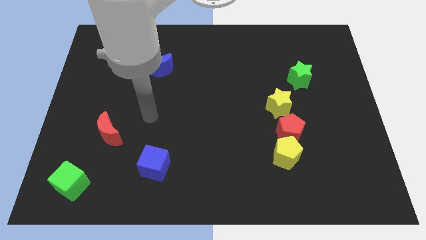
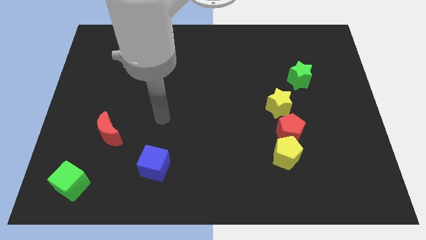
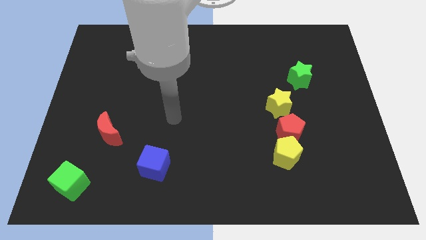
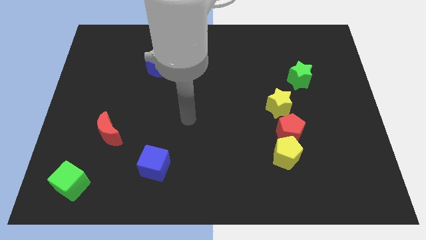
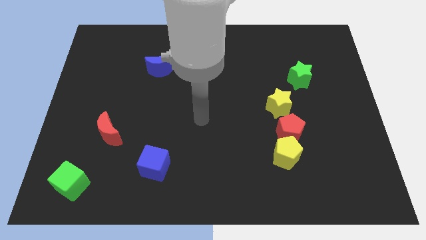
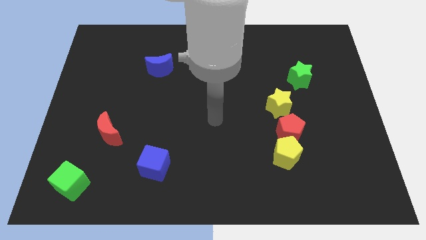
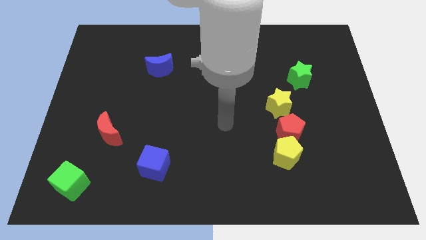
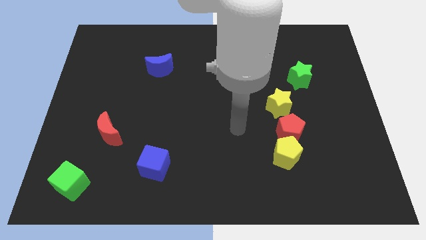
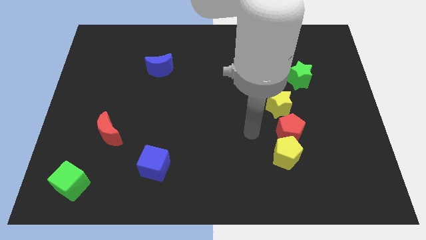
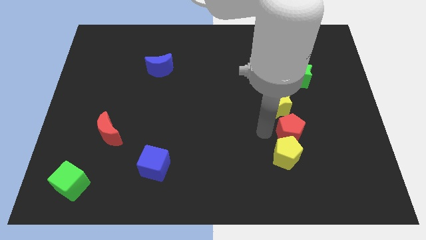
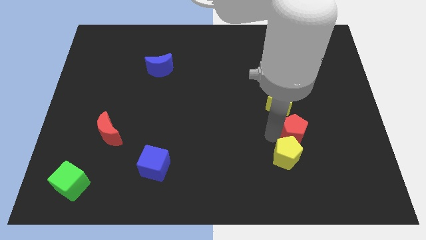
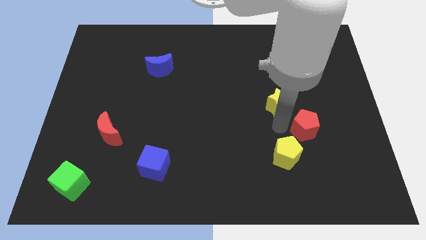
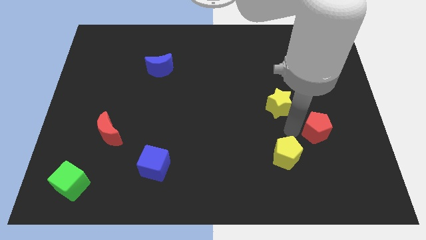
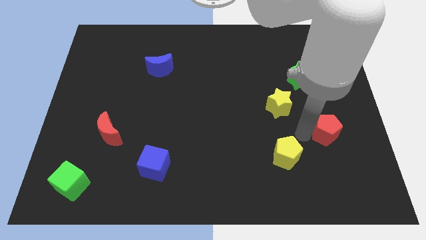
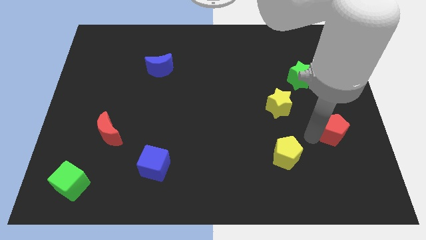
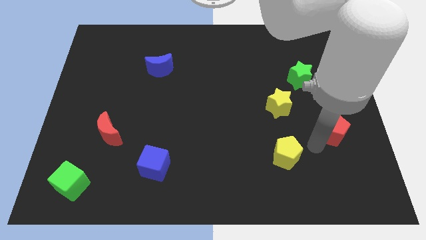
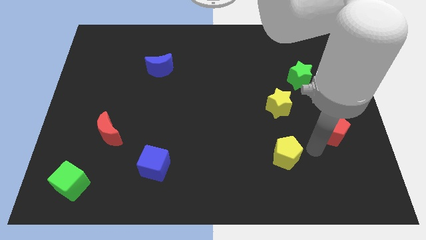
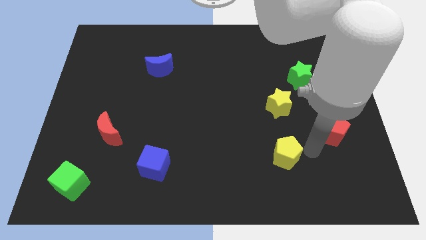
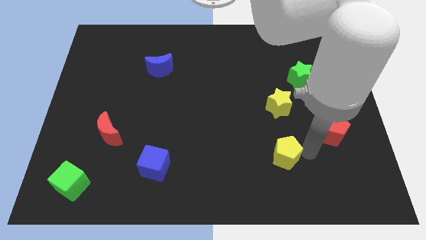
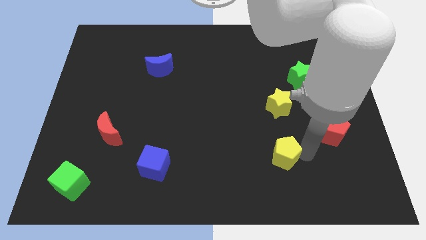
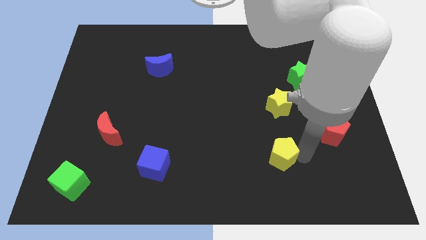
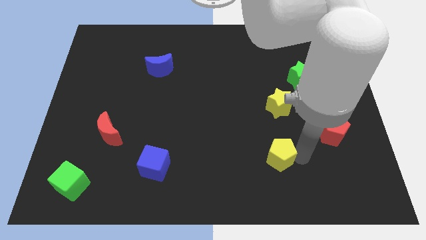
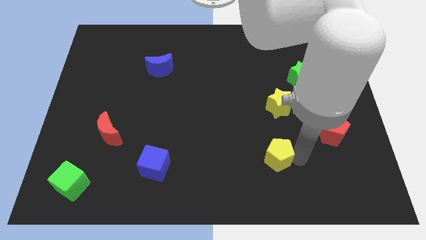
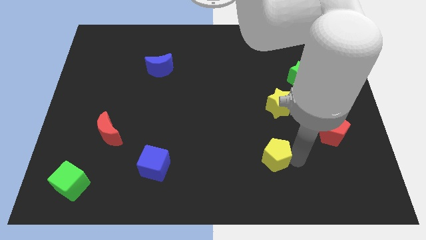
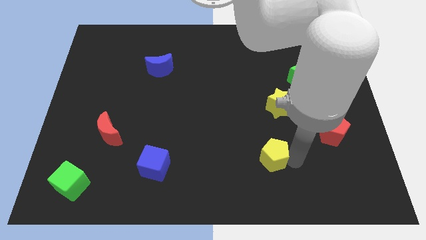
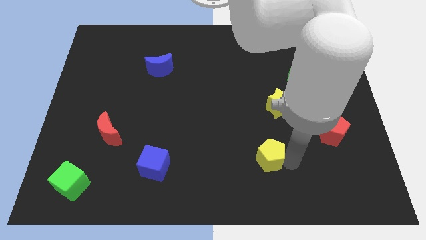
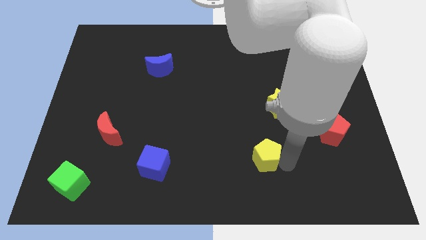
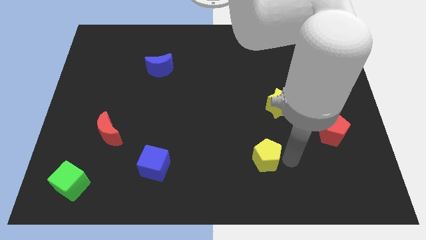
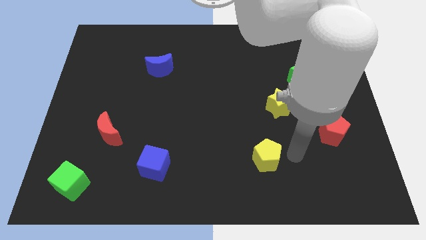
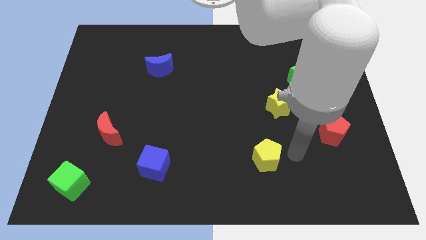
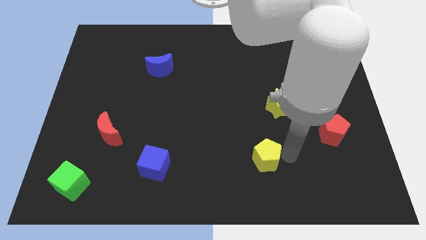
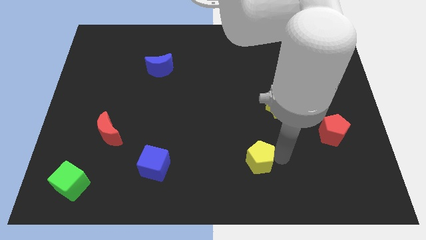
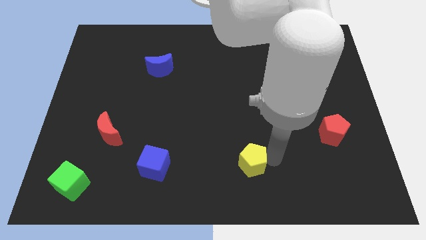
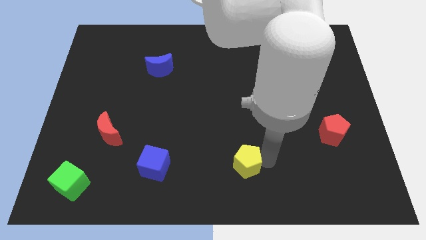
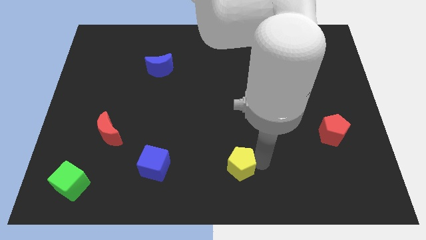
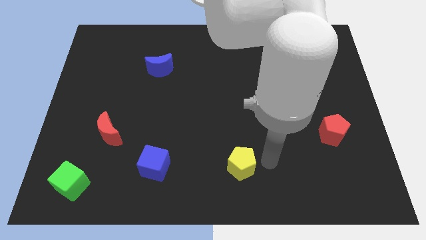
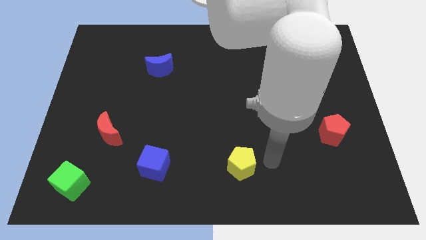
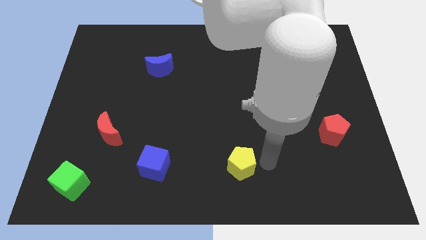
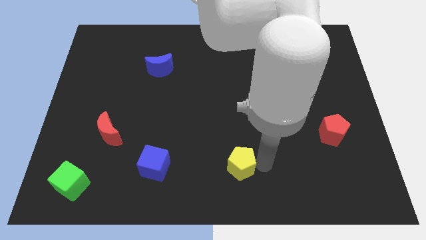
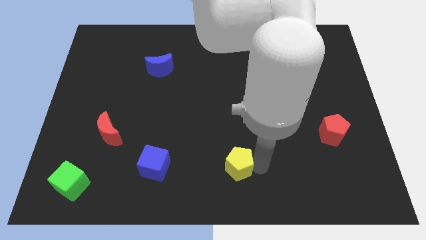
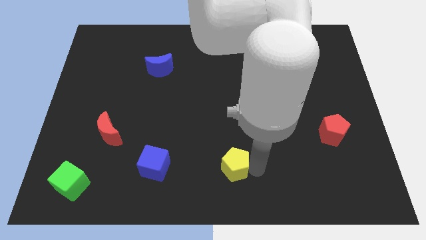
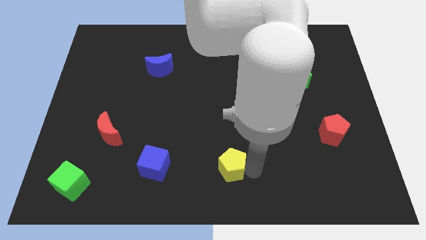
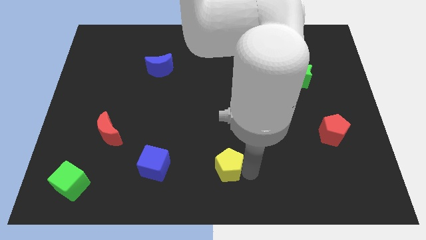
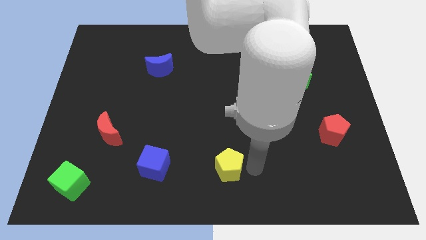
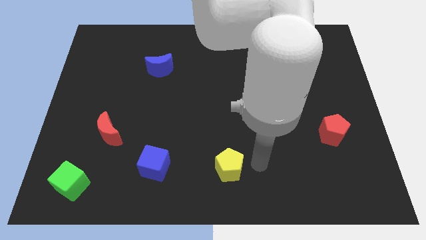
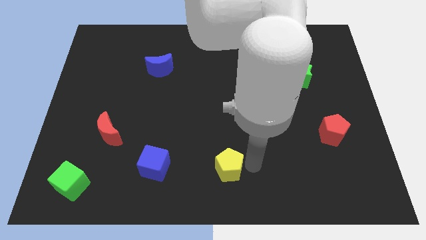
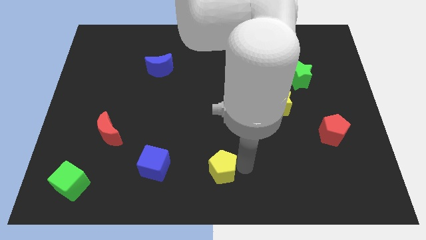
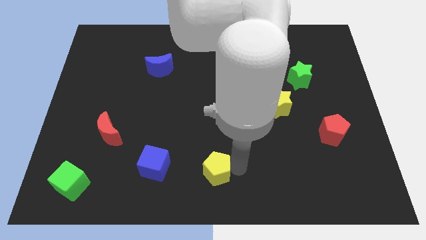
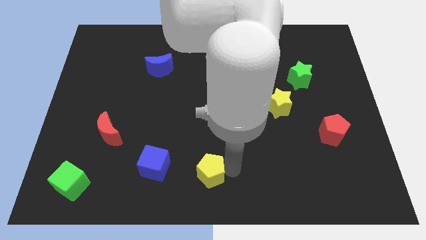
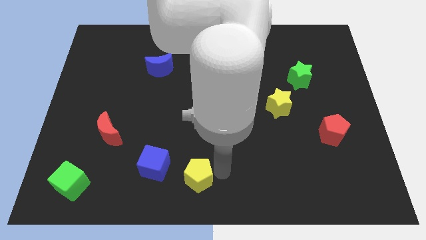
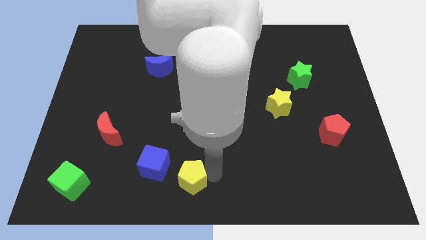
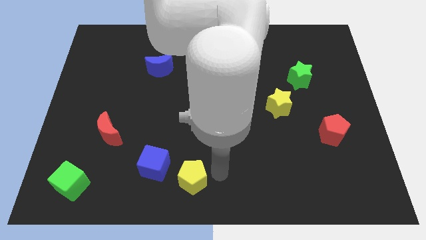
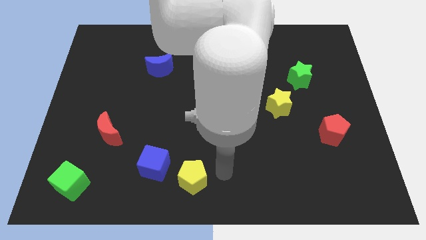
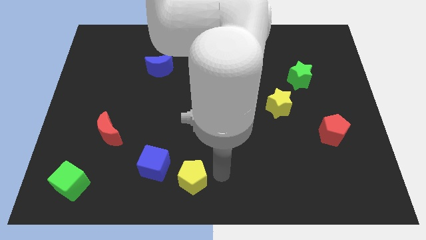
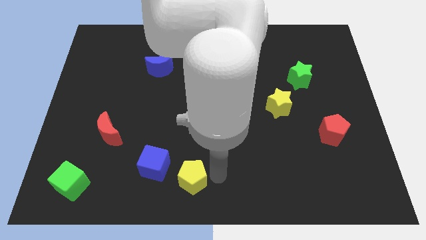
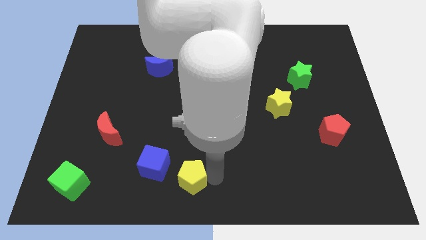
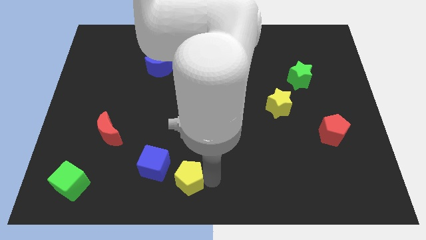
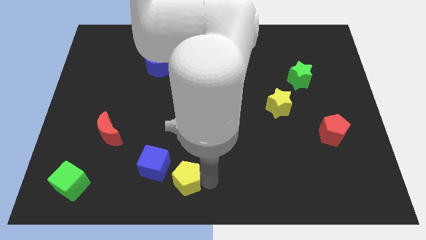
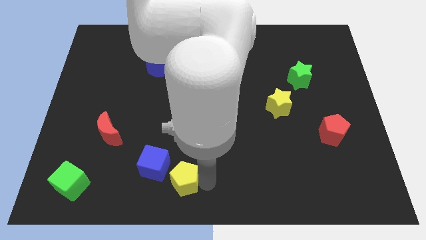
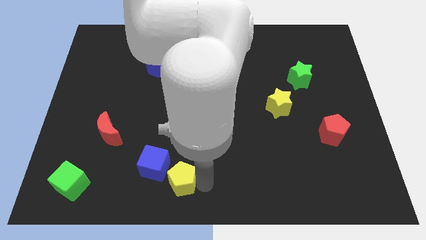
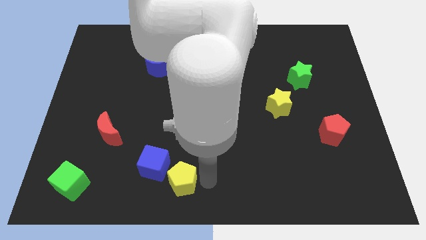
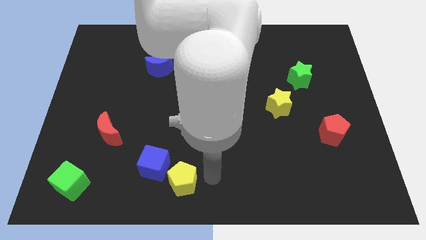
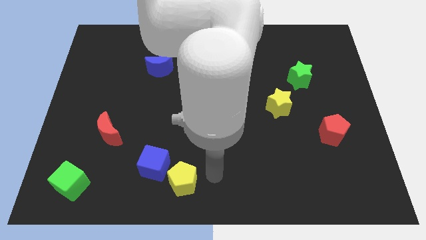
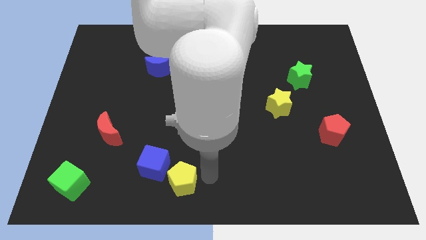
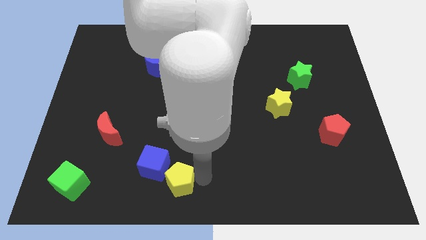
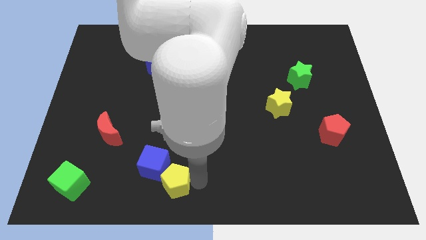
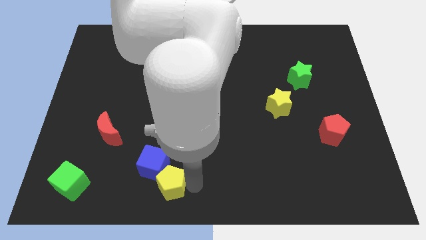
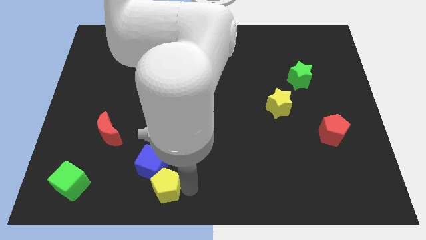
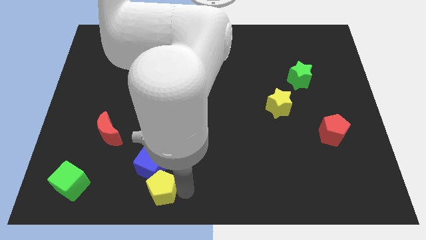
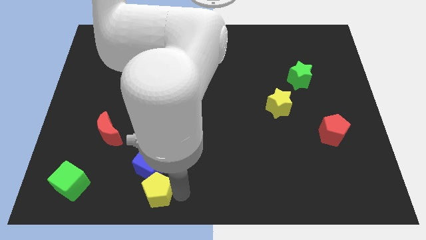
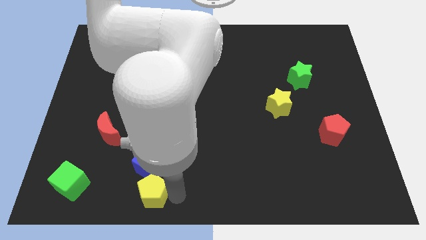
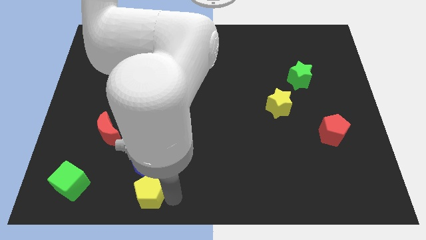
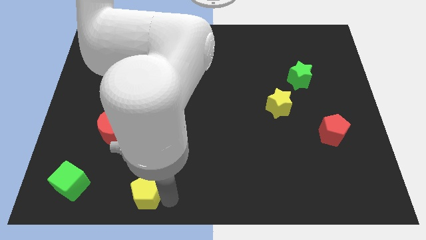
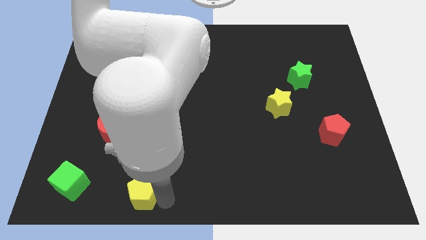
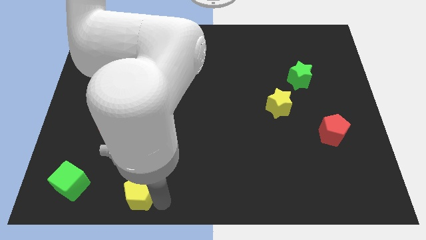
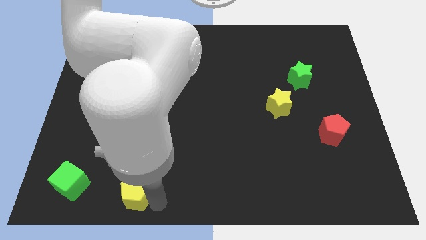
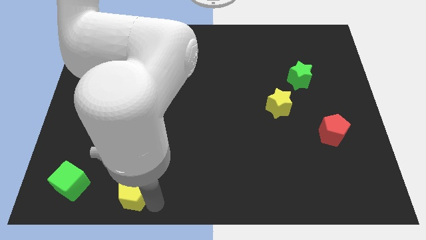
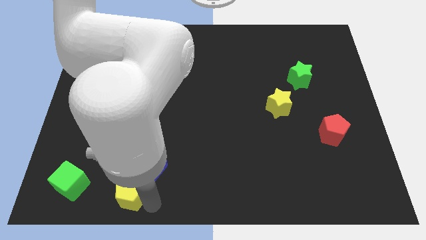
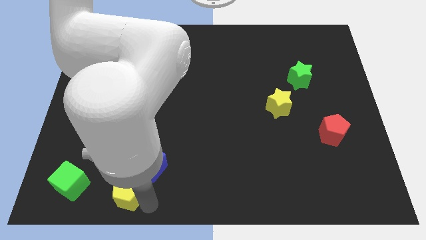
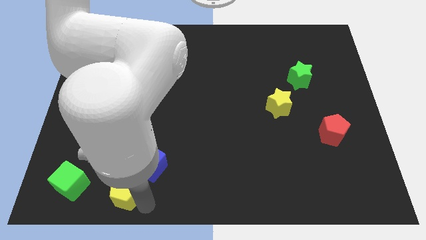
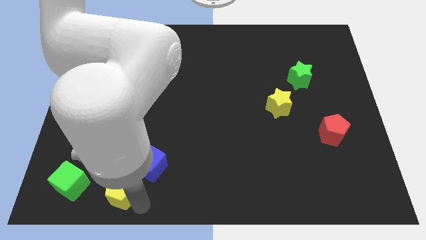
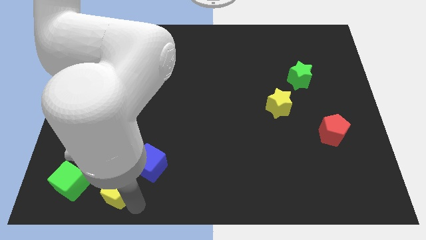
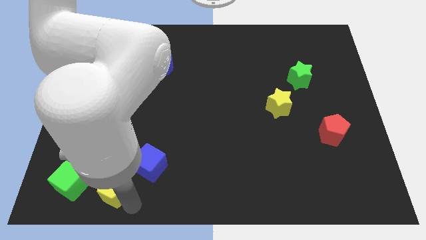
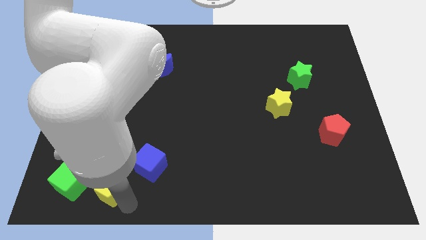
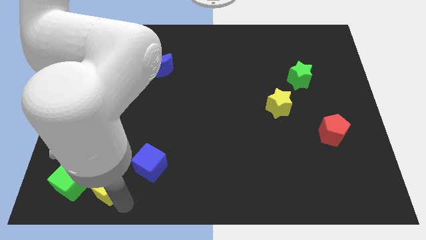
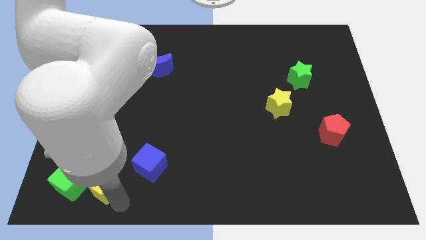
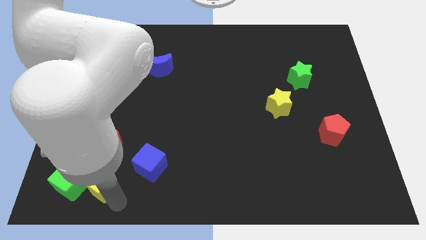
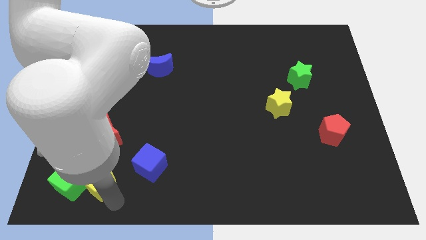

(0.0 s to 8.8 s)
slide the yellow pentagon towards the green cube
